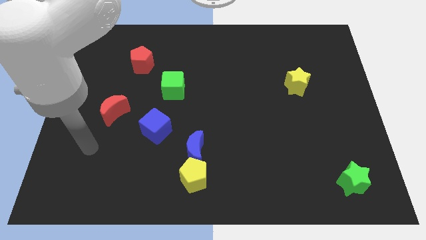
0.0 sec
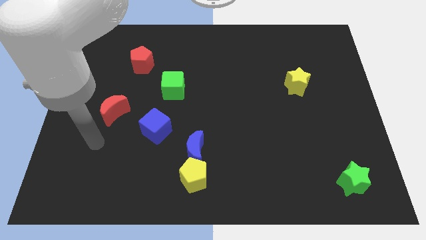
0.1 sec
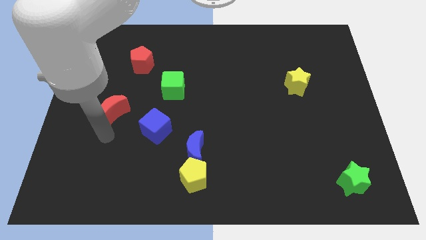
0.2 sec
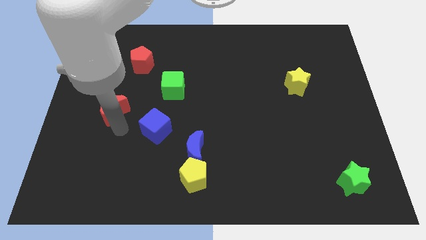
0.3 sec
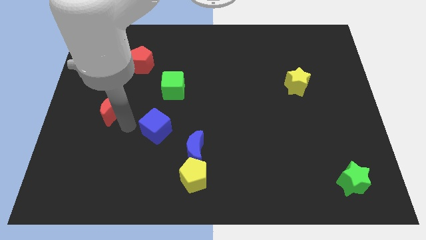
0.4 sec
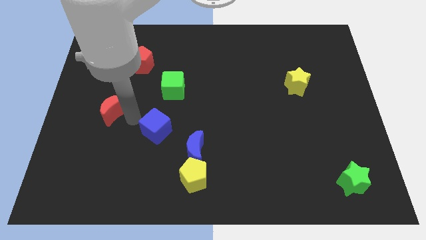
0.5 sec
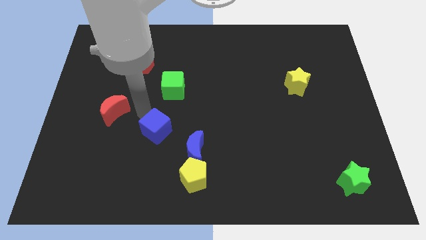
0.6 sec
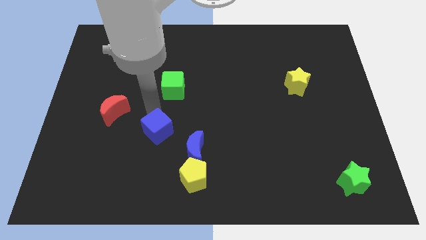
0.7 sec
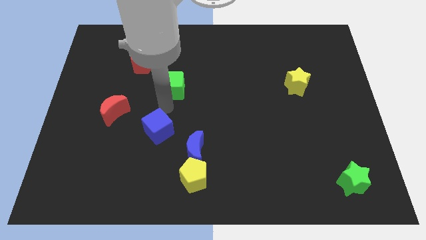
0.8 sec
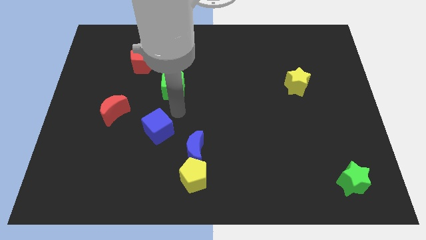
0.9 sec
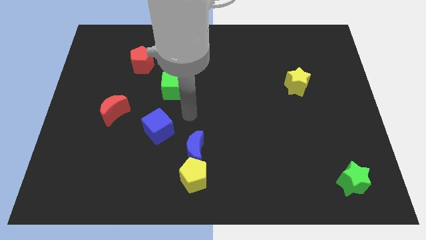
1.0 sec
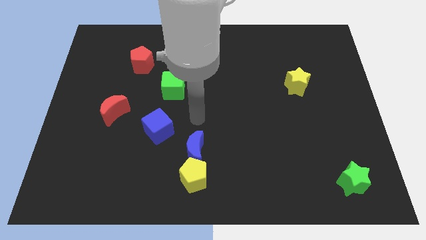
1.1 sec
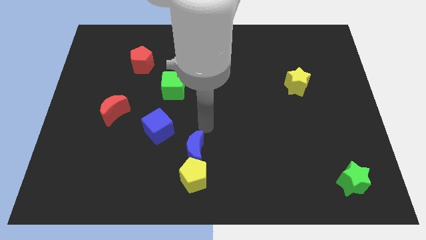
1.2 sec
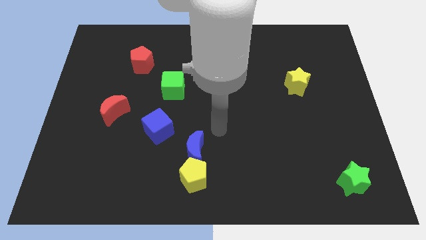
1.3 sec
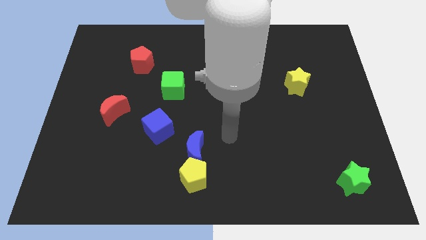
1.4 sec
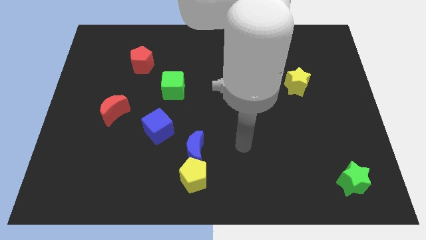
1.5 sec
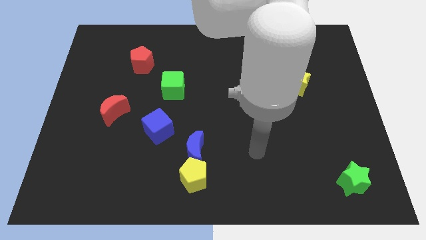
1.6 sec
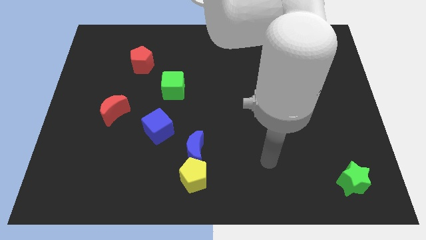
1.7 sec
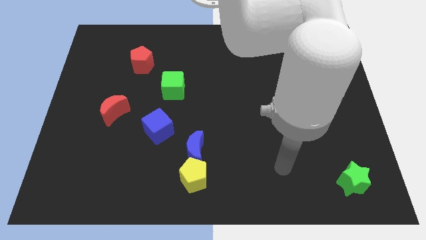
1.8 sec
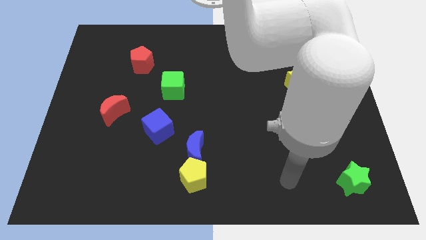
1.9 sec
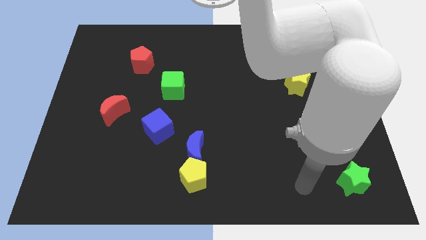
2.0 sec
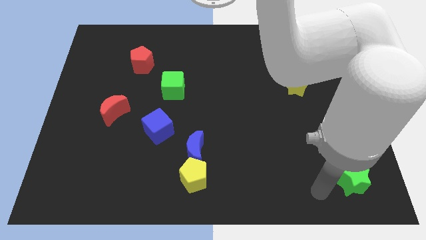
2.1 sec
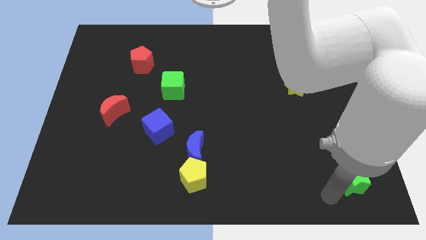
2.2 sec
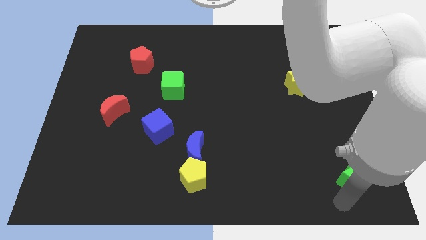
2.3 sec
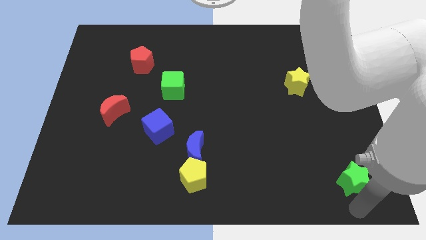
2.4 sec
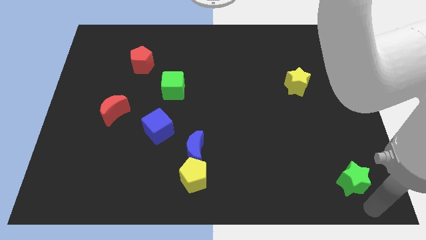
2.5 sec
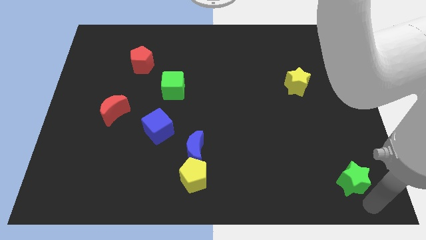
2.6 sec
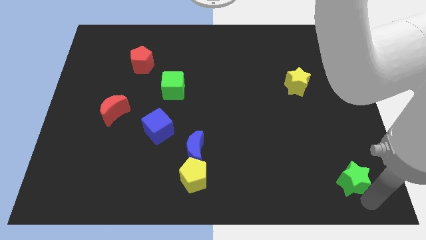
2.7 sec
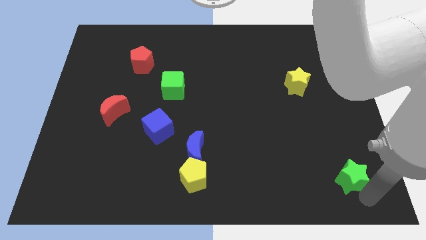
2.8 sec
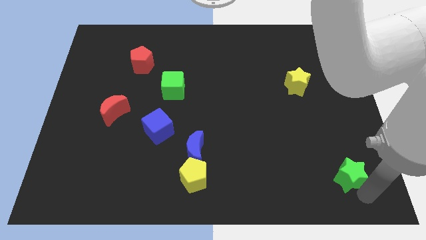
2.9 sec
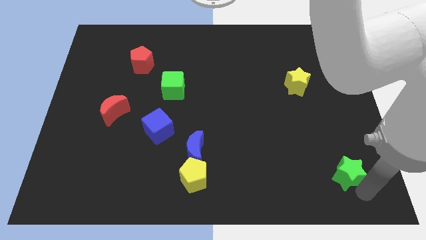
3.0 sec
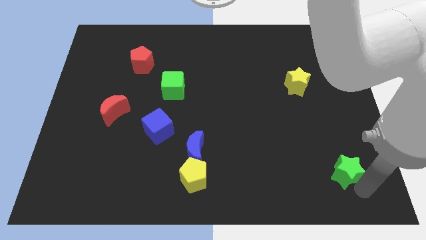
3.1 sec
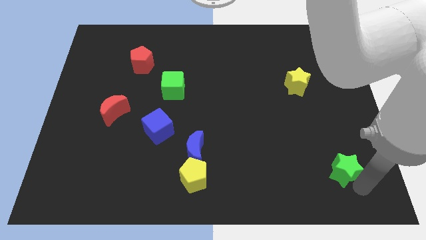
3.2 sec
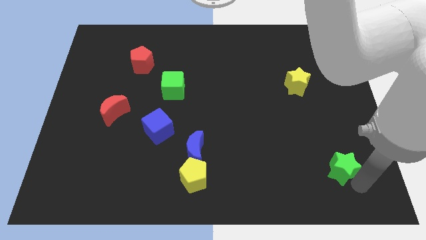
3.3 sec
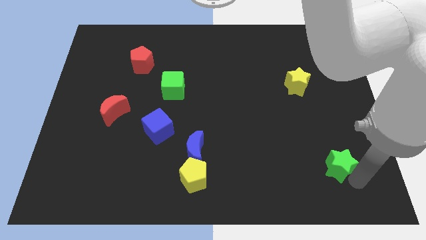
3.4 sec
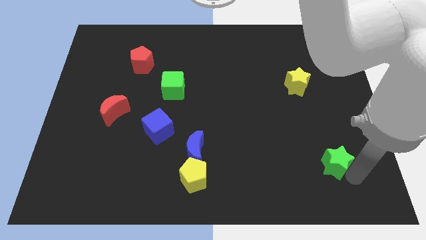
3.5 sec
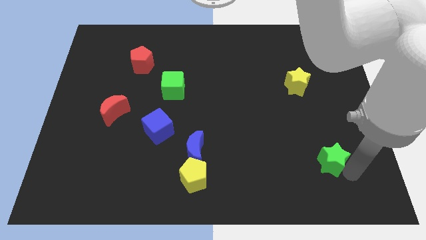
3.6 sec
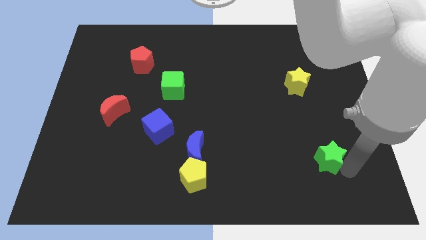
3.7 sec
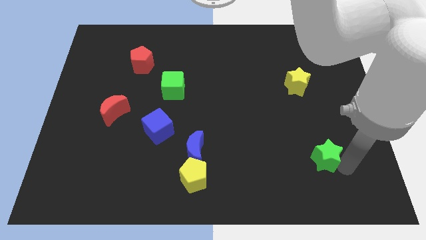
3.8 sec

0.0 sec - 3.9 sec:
slide the green star slightly upwards and left diagonally

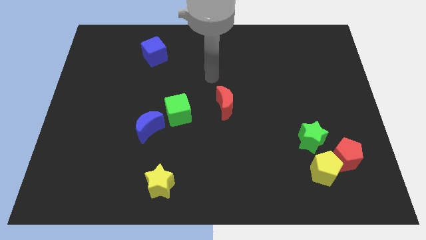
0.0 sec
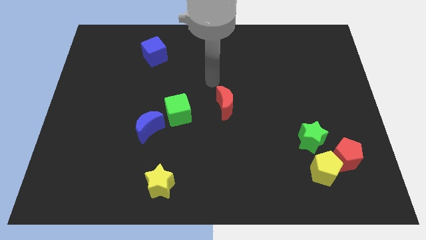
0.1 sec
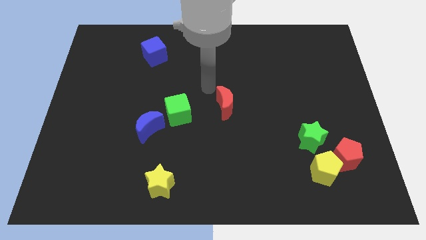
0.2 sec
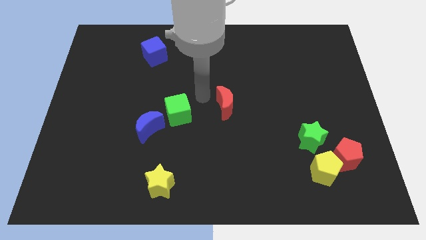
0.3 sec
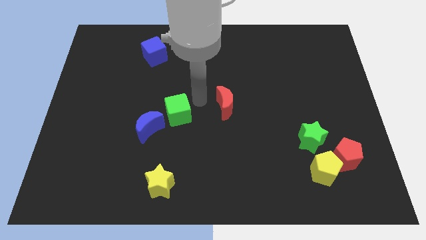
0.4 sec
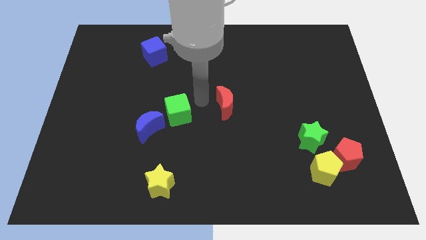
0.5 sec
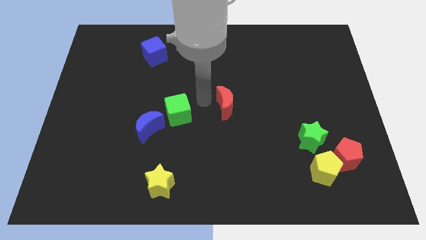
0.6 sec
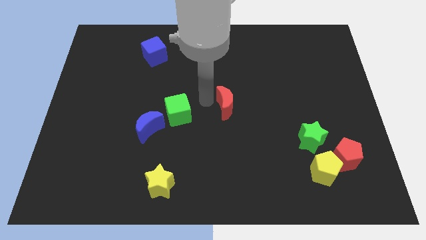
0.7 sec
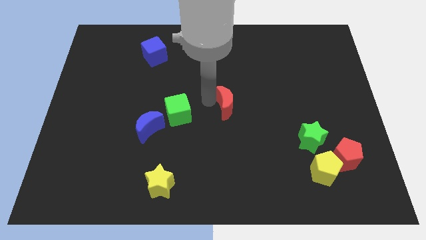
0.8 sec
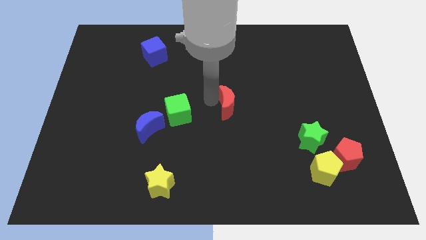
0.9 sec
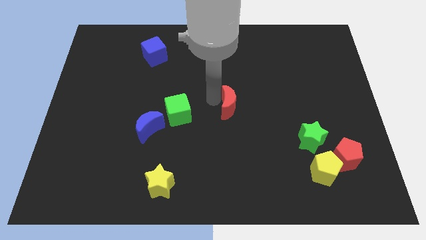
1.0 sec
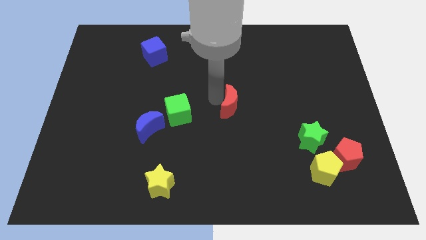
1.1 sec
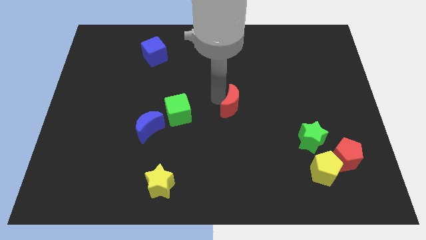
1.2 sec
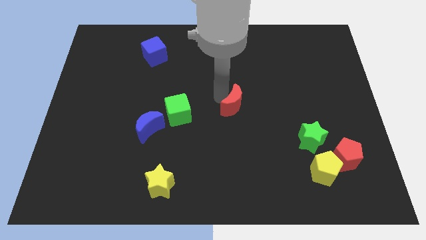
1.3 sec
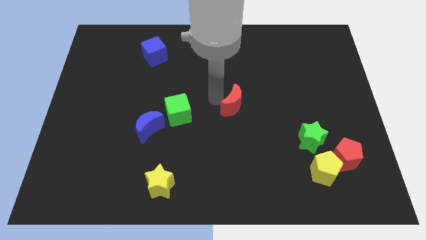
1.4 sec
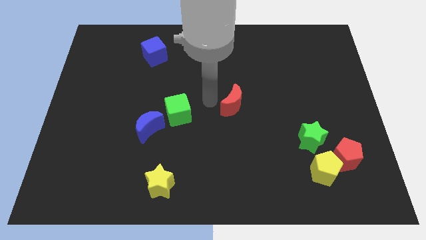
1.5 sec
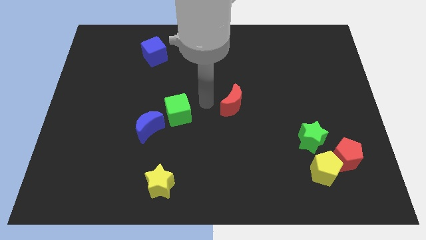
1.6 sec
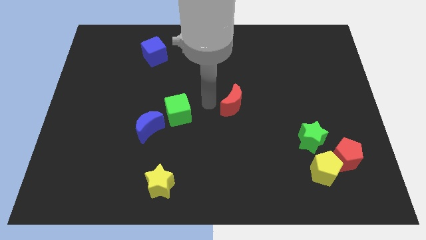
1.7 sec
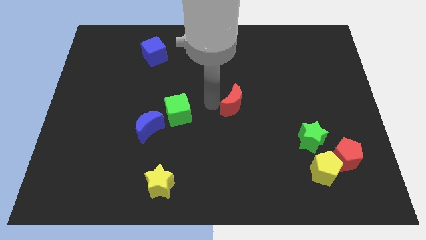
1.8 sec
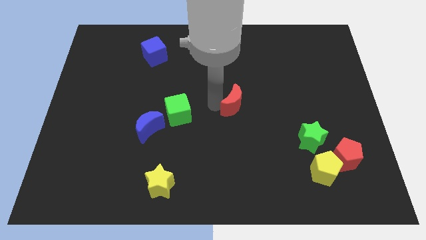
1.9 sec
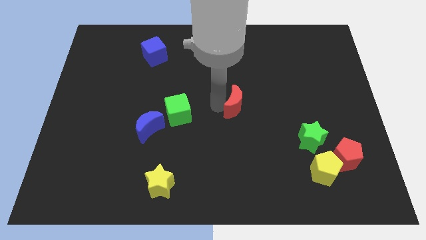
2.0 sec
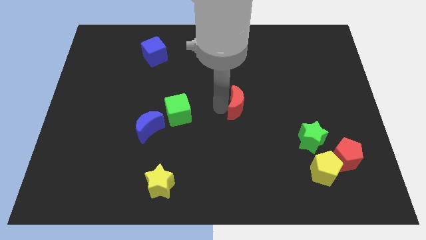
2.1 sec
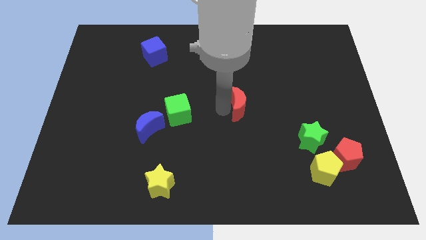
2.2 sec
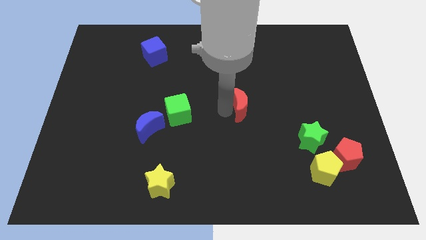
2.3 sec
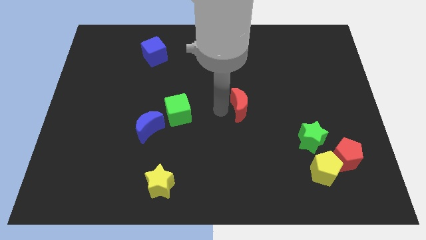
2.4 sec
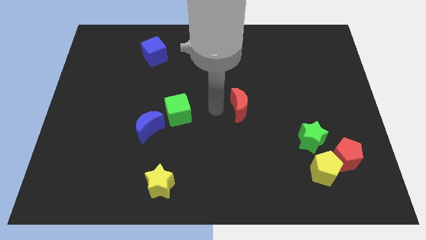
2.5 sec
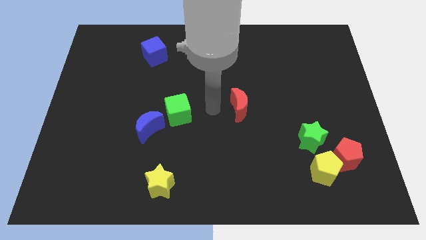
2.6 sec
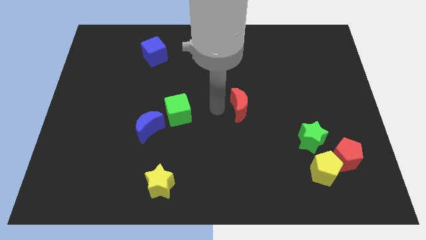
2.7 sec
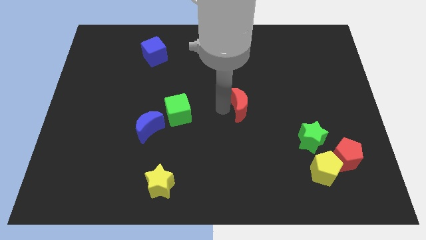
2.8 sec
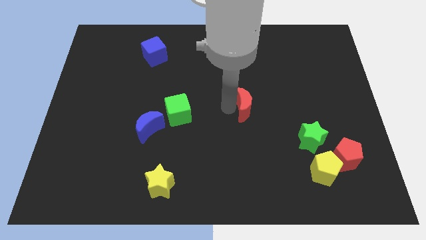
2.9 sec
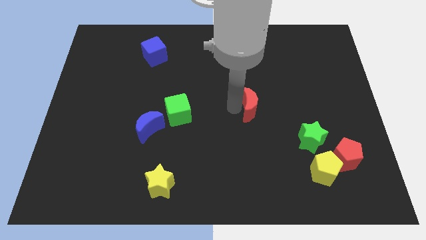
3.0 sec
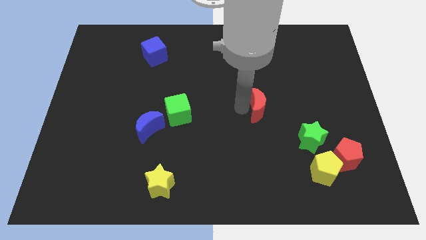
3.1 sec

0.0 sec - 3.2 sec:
slide the red moon right a bit

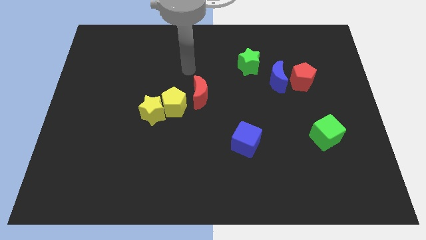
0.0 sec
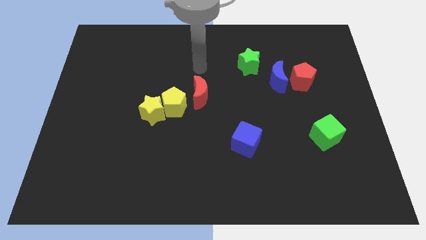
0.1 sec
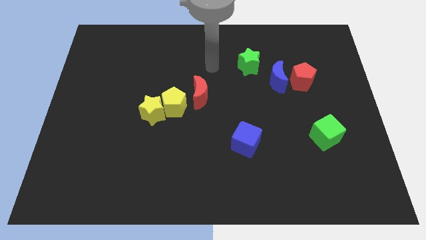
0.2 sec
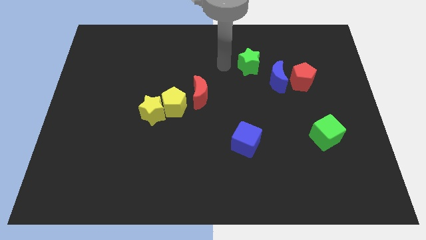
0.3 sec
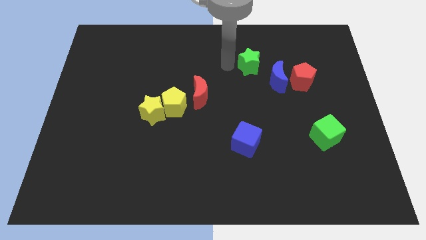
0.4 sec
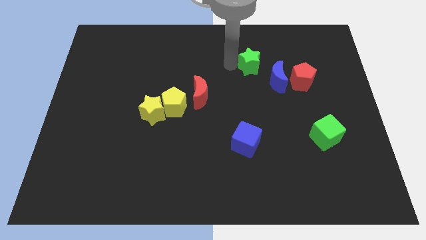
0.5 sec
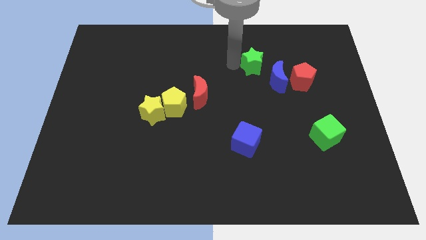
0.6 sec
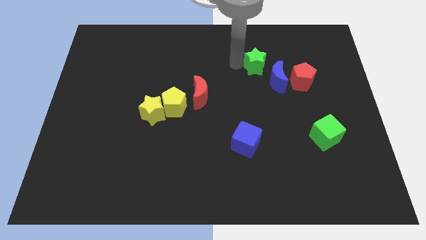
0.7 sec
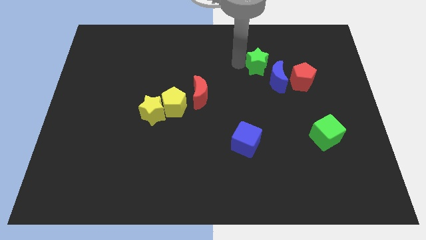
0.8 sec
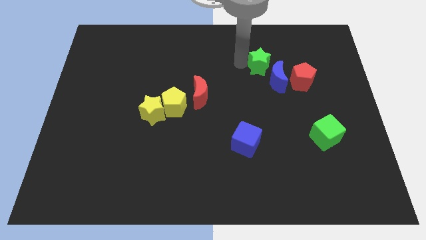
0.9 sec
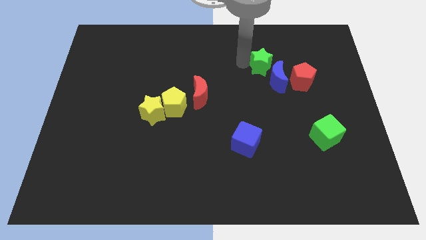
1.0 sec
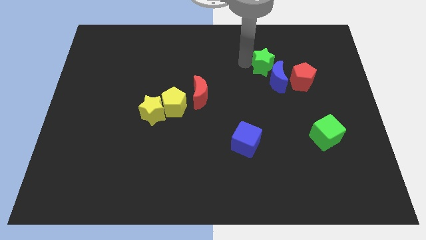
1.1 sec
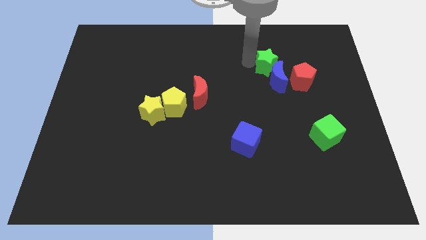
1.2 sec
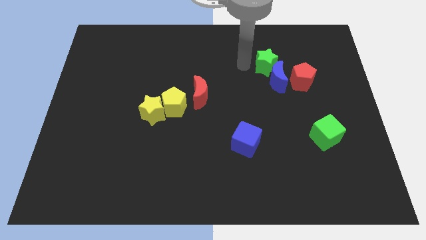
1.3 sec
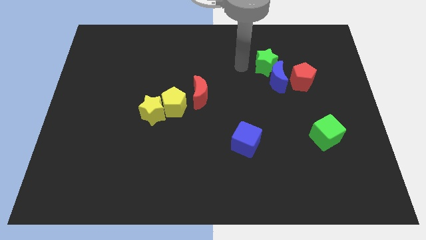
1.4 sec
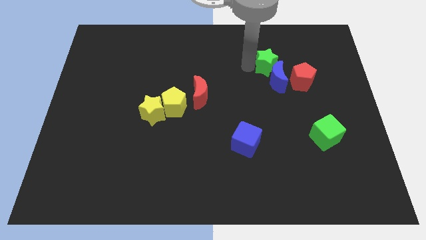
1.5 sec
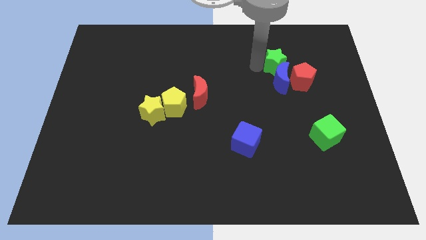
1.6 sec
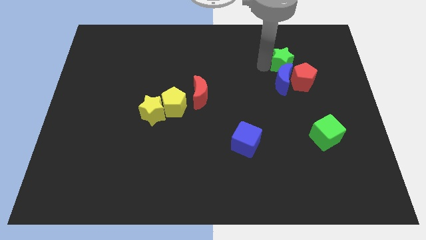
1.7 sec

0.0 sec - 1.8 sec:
slide the green star to the right a little
